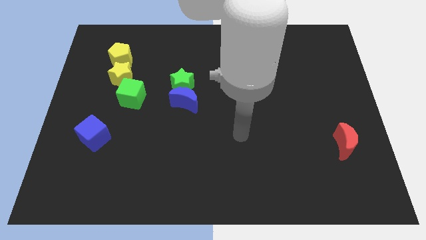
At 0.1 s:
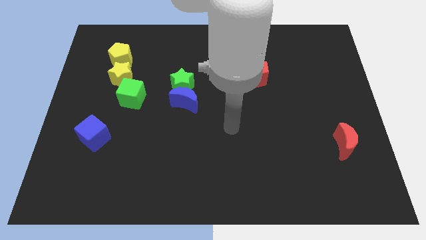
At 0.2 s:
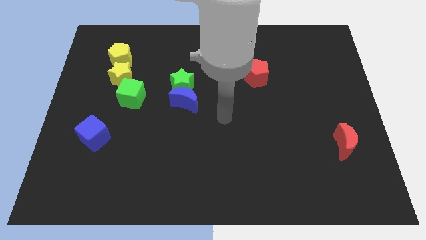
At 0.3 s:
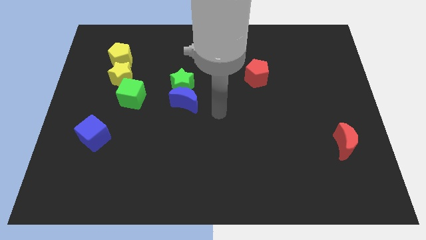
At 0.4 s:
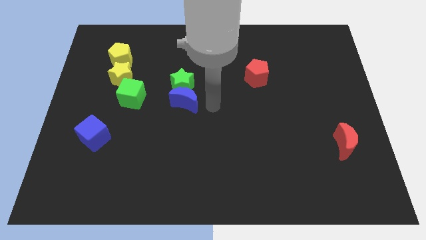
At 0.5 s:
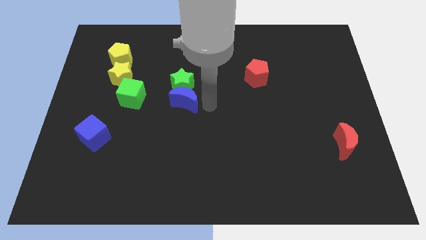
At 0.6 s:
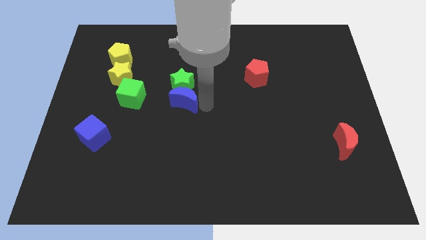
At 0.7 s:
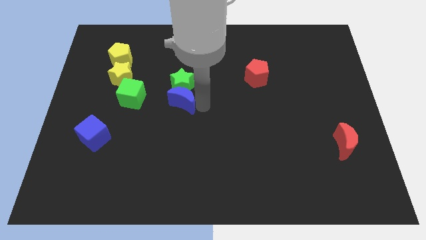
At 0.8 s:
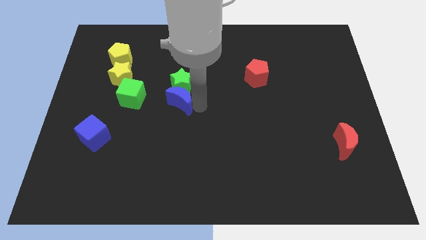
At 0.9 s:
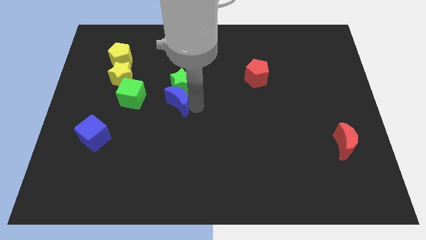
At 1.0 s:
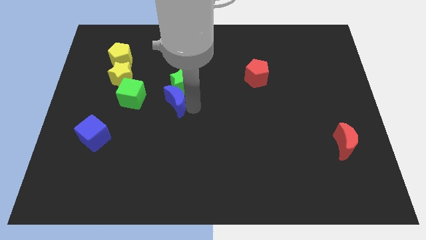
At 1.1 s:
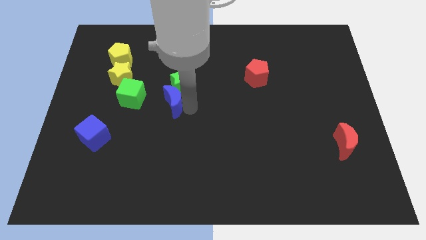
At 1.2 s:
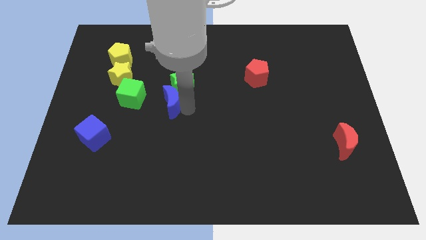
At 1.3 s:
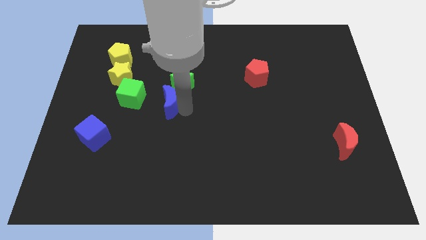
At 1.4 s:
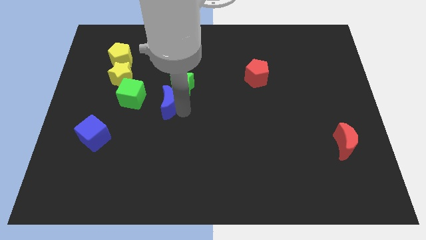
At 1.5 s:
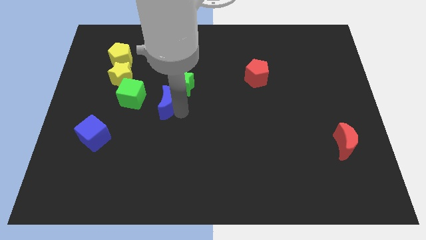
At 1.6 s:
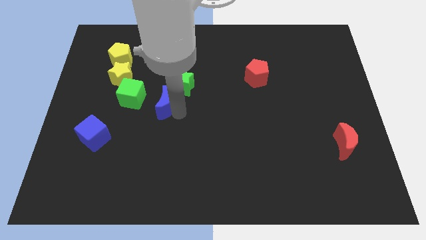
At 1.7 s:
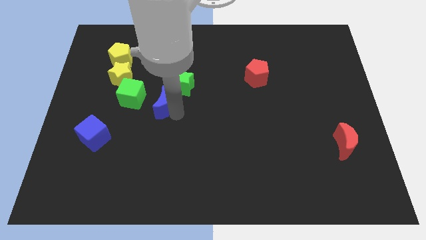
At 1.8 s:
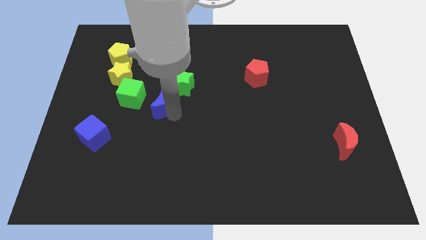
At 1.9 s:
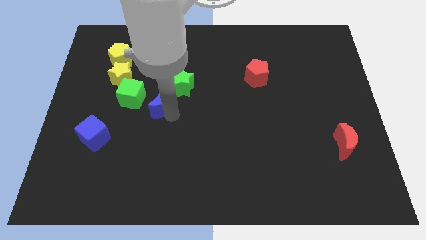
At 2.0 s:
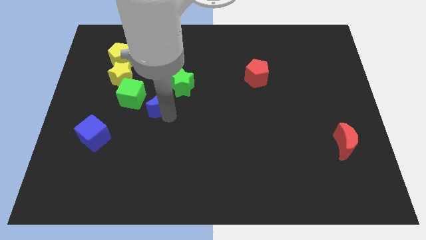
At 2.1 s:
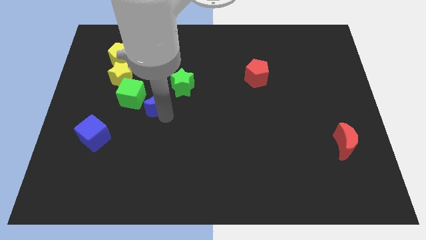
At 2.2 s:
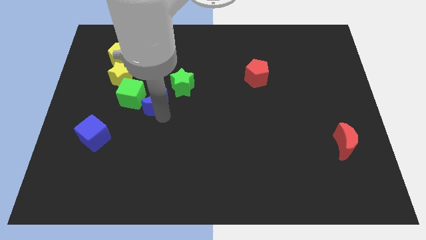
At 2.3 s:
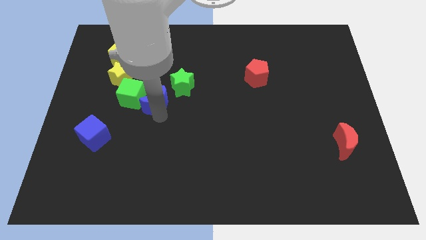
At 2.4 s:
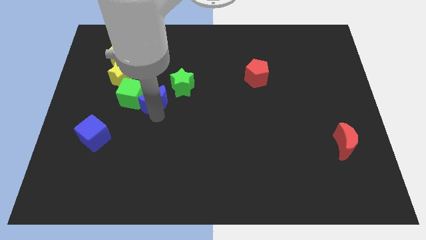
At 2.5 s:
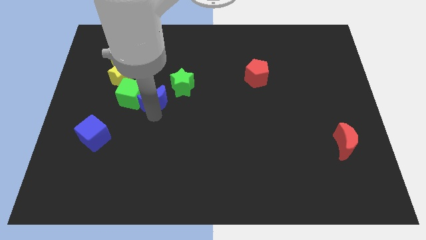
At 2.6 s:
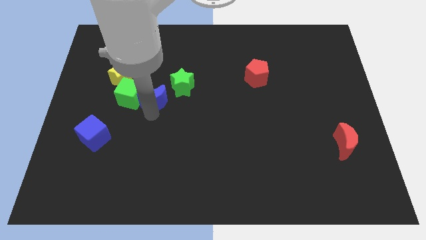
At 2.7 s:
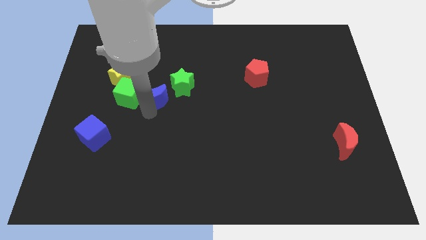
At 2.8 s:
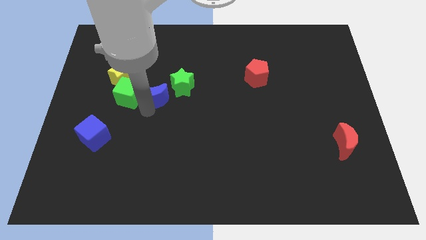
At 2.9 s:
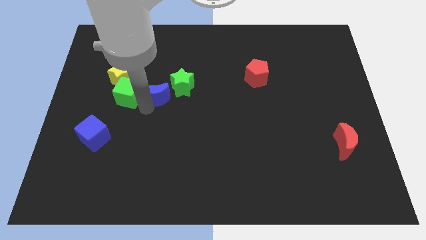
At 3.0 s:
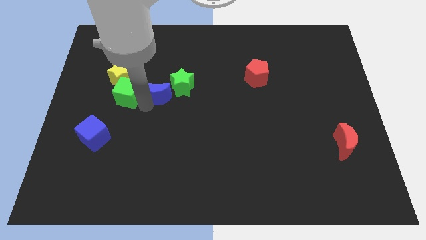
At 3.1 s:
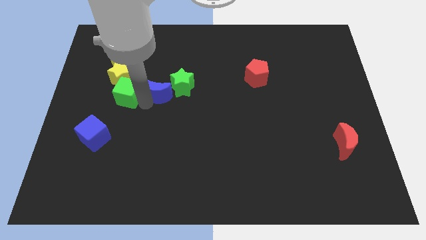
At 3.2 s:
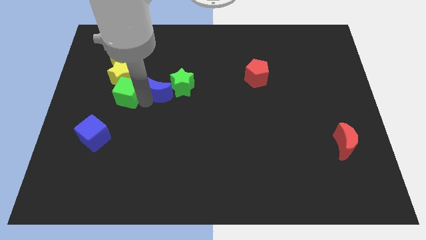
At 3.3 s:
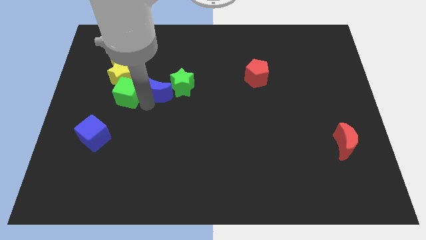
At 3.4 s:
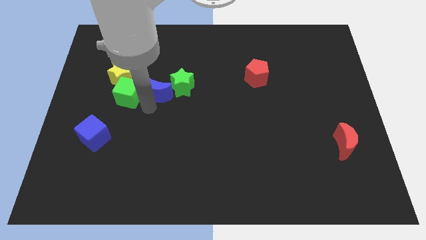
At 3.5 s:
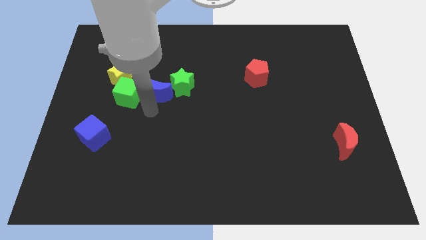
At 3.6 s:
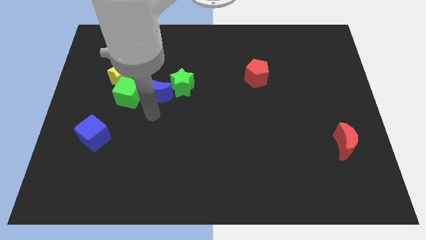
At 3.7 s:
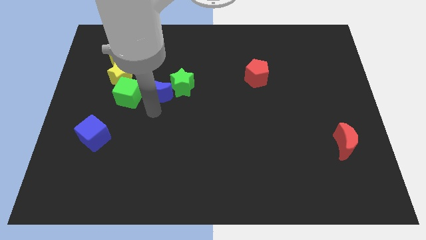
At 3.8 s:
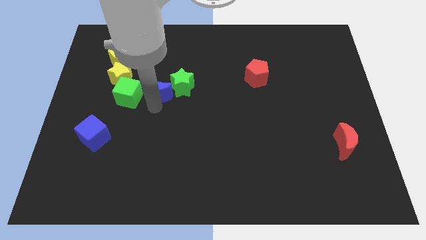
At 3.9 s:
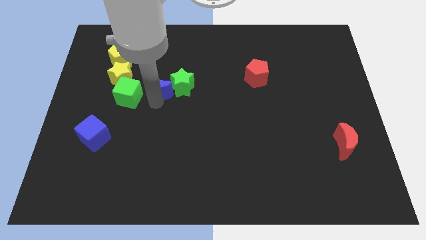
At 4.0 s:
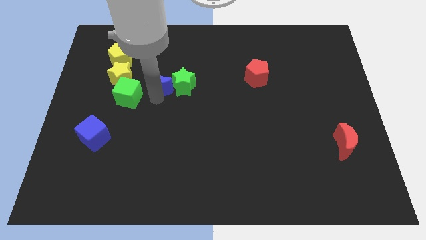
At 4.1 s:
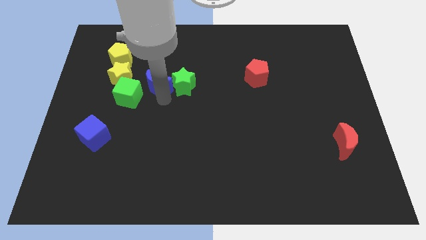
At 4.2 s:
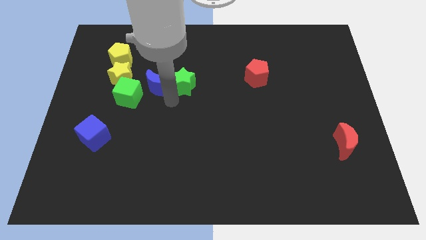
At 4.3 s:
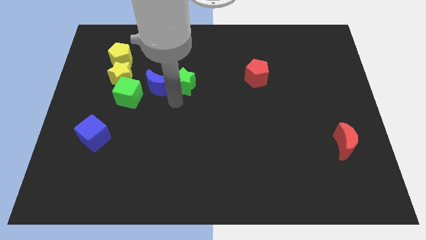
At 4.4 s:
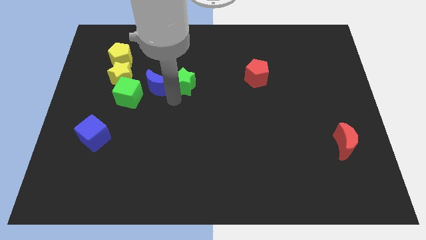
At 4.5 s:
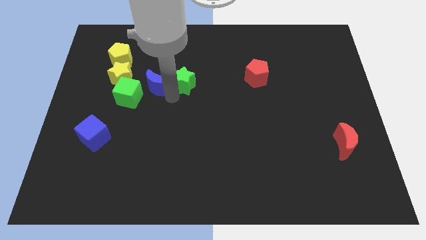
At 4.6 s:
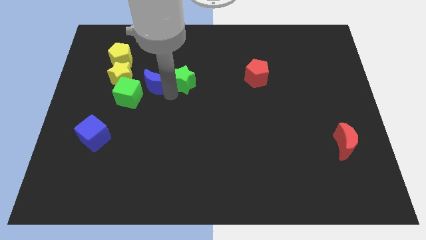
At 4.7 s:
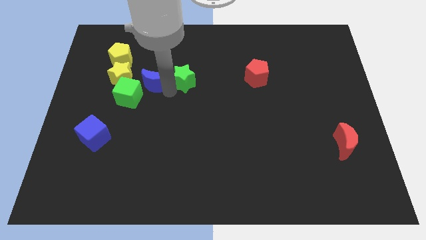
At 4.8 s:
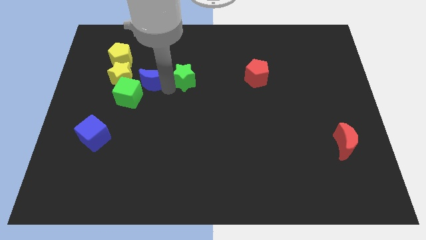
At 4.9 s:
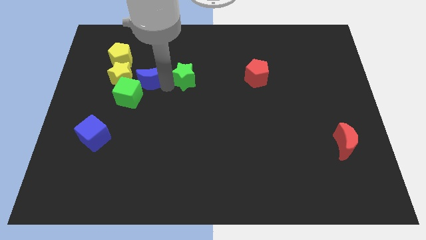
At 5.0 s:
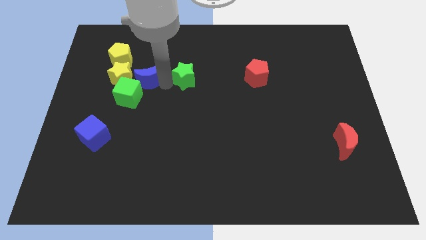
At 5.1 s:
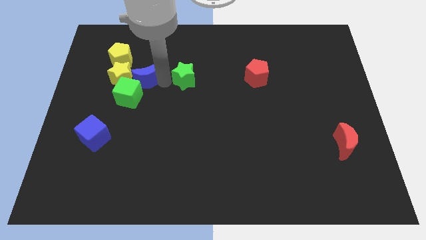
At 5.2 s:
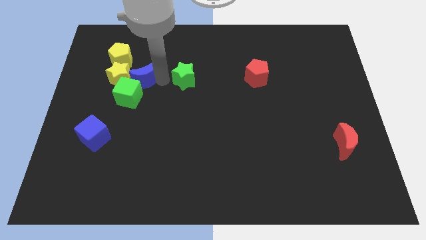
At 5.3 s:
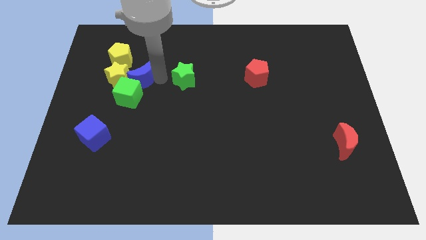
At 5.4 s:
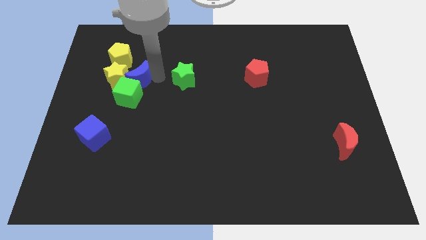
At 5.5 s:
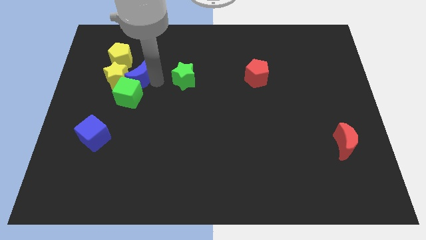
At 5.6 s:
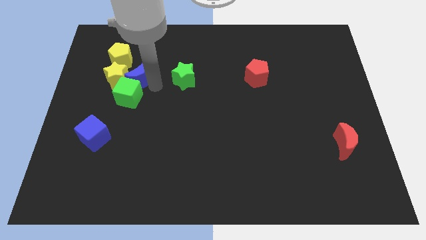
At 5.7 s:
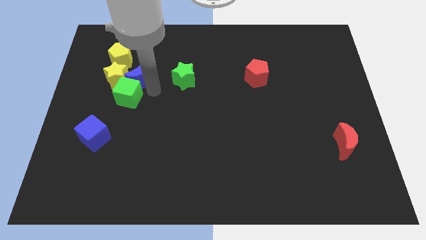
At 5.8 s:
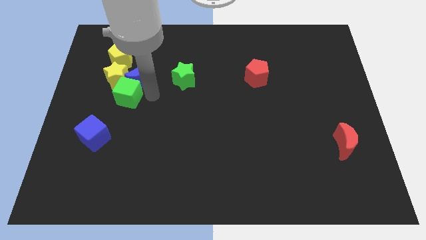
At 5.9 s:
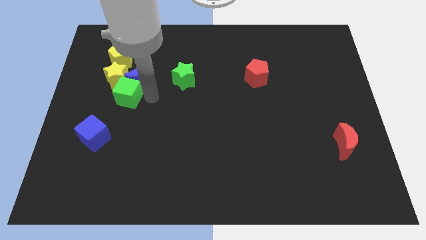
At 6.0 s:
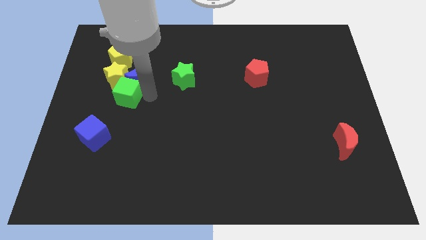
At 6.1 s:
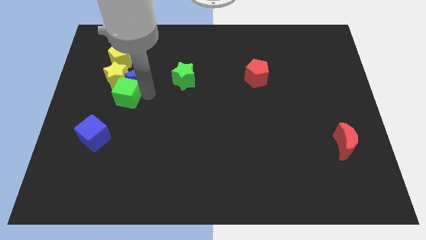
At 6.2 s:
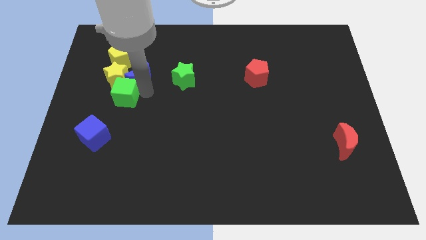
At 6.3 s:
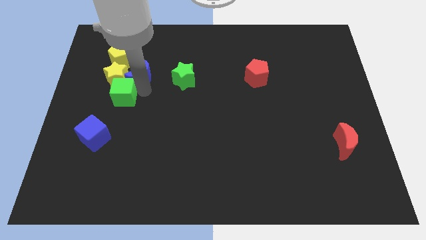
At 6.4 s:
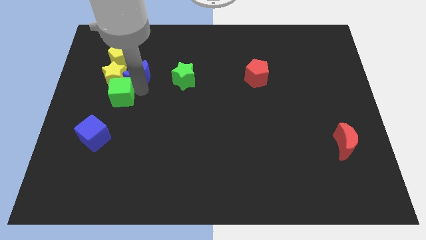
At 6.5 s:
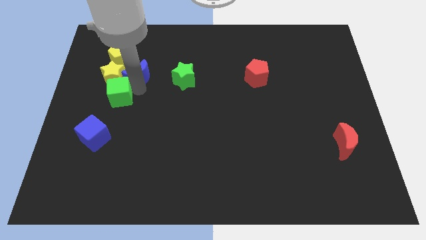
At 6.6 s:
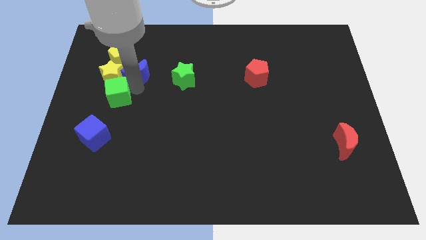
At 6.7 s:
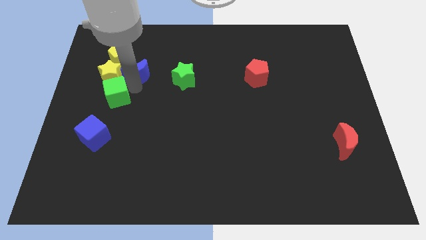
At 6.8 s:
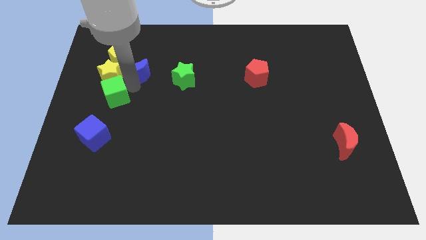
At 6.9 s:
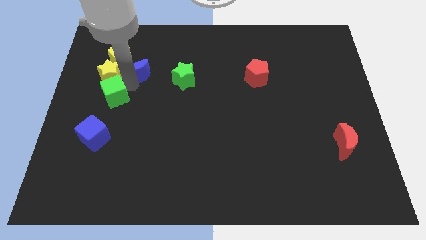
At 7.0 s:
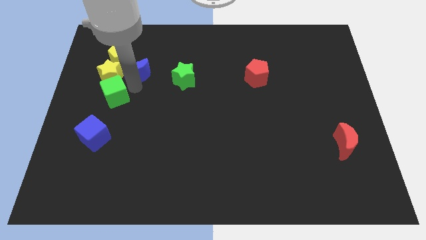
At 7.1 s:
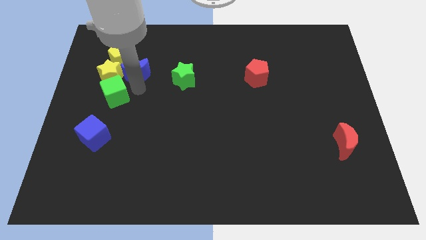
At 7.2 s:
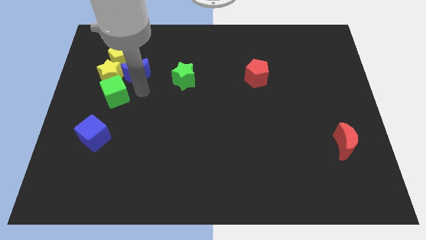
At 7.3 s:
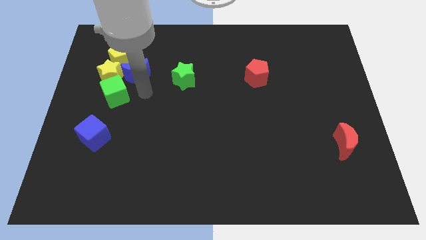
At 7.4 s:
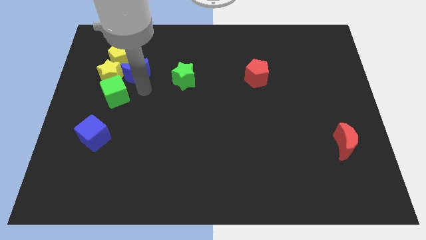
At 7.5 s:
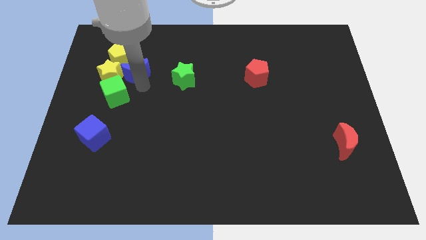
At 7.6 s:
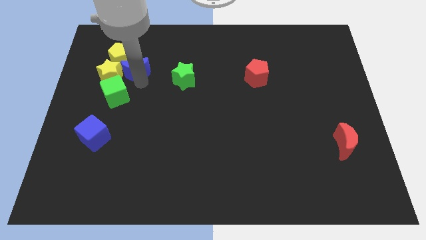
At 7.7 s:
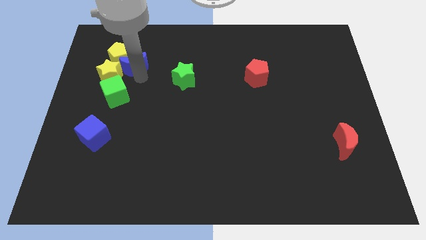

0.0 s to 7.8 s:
put the blue moon next to the yellow pentagon
